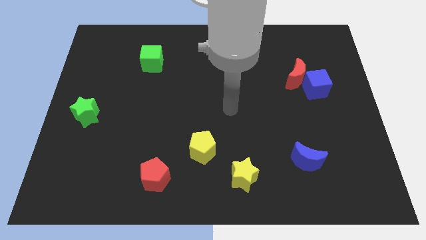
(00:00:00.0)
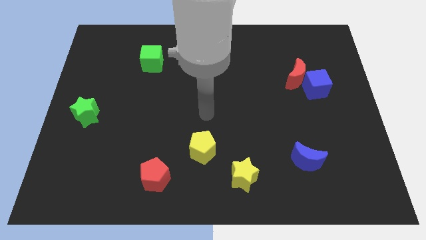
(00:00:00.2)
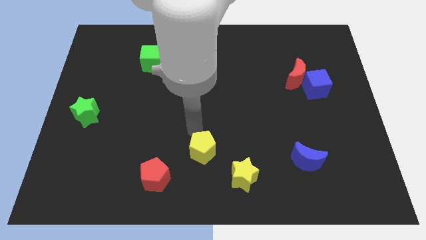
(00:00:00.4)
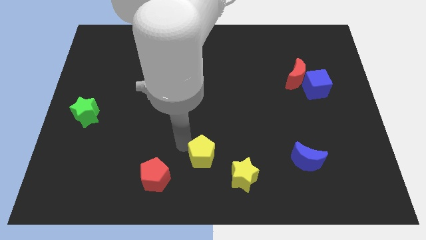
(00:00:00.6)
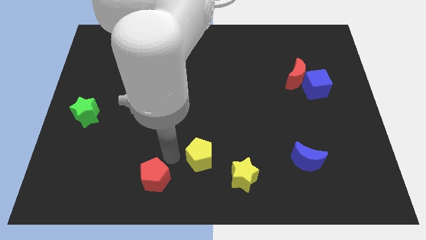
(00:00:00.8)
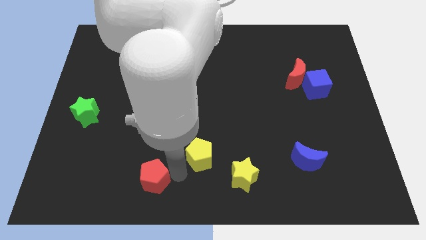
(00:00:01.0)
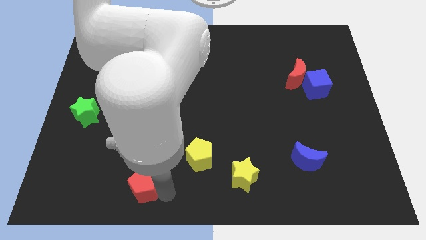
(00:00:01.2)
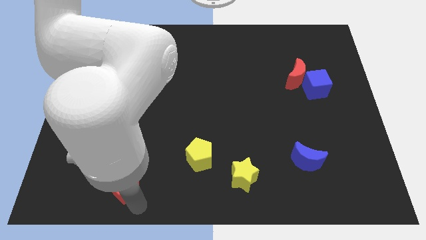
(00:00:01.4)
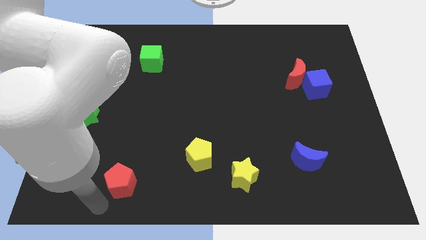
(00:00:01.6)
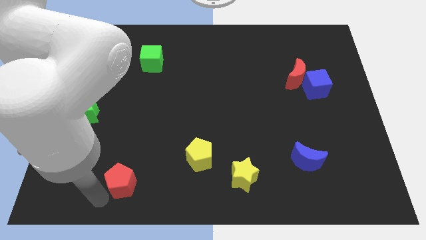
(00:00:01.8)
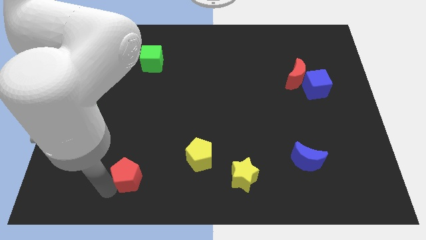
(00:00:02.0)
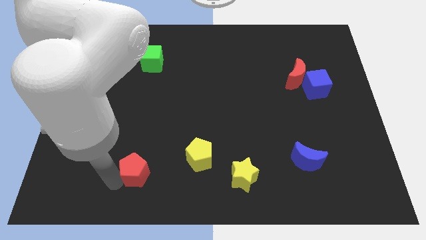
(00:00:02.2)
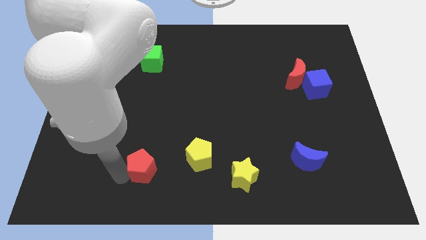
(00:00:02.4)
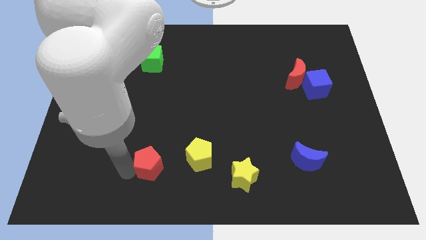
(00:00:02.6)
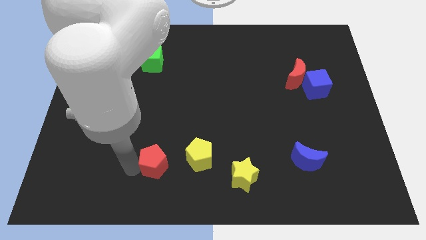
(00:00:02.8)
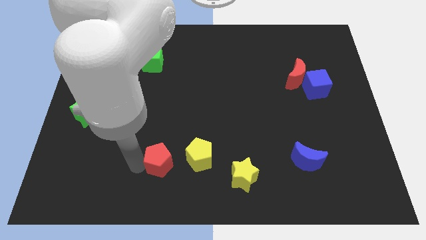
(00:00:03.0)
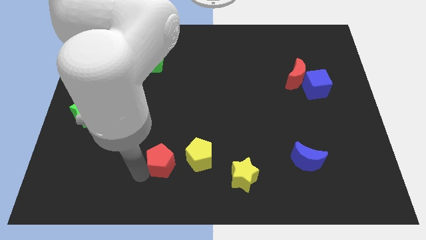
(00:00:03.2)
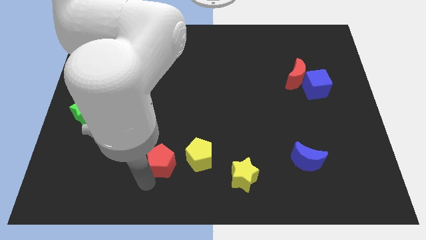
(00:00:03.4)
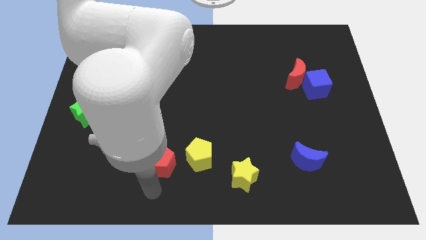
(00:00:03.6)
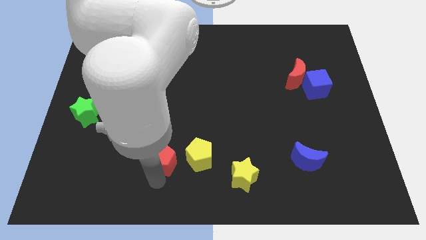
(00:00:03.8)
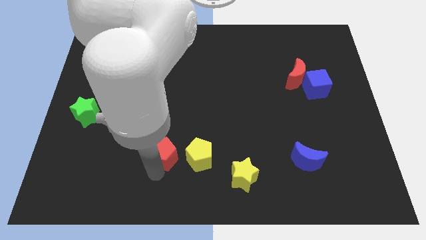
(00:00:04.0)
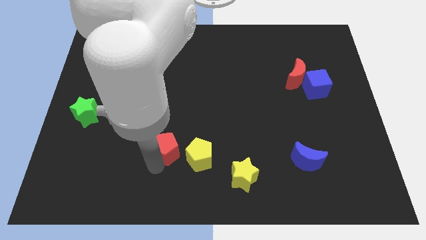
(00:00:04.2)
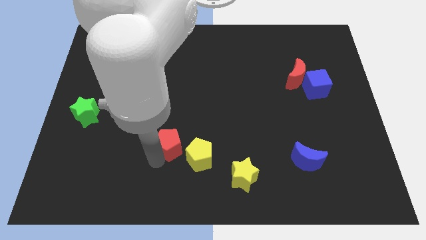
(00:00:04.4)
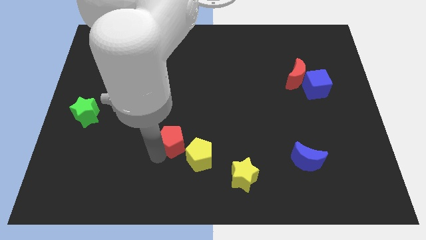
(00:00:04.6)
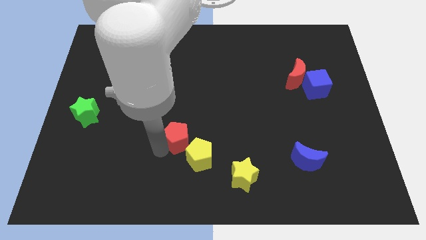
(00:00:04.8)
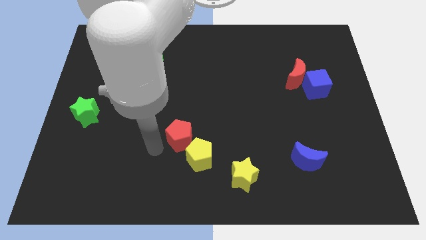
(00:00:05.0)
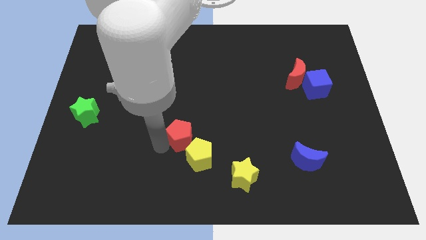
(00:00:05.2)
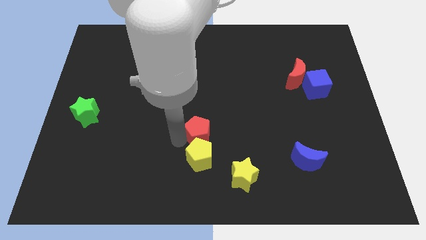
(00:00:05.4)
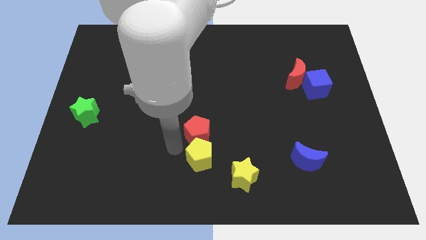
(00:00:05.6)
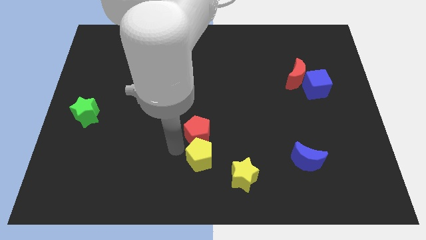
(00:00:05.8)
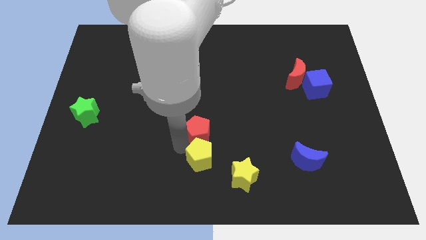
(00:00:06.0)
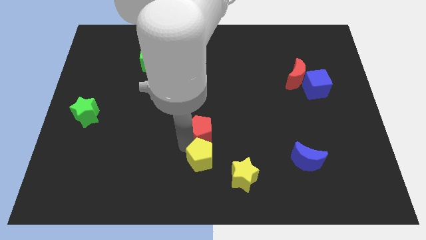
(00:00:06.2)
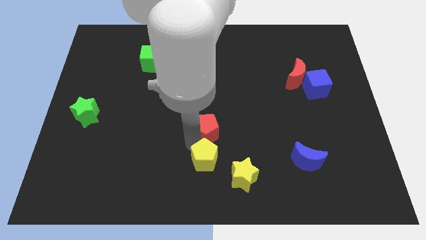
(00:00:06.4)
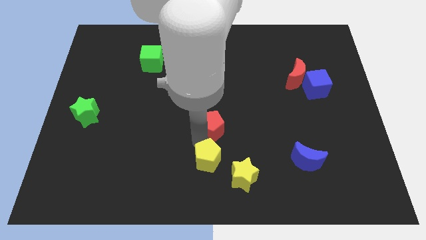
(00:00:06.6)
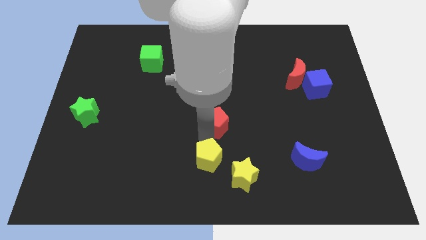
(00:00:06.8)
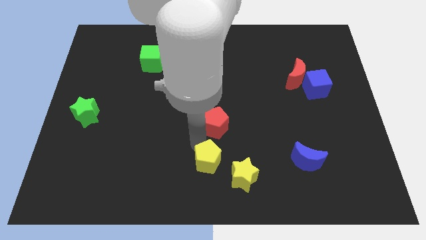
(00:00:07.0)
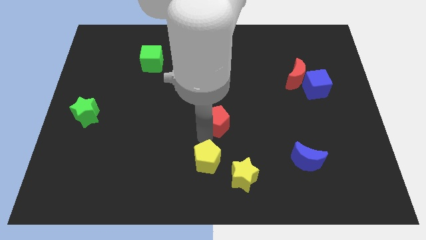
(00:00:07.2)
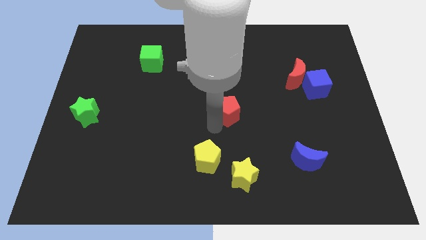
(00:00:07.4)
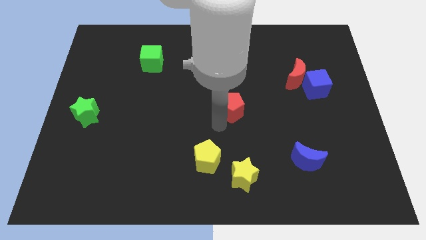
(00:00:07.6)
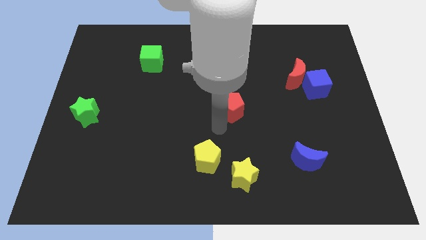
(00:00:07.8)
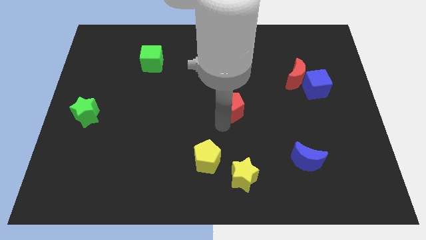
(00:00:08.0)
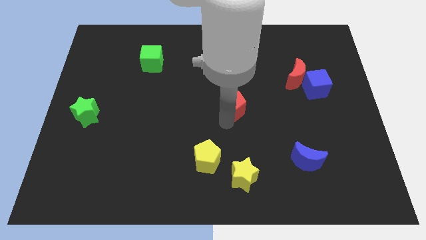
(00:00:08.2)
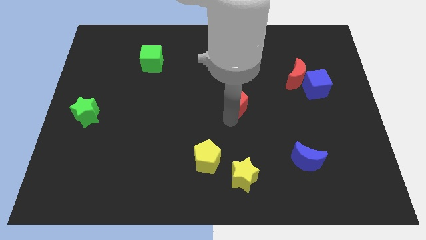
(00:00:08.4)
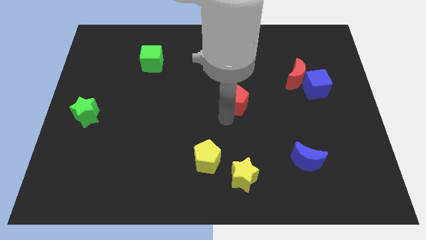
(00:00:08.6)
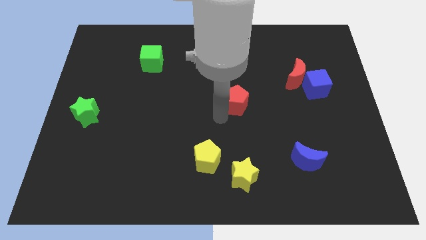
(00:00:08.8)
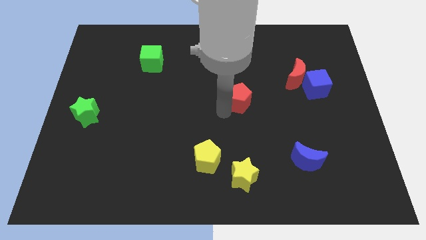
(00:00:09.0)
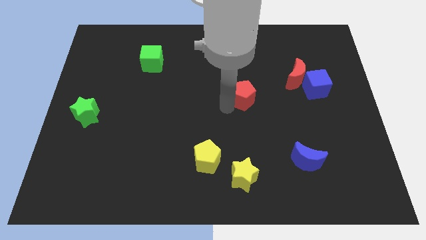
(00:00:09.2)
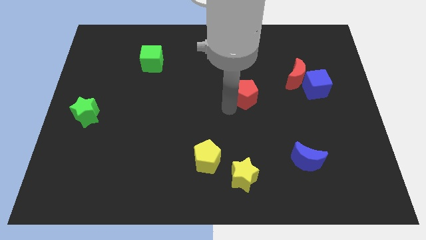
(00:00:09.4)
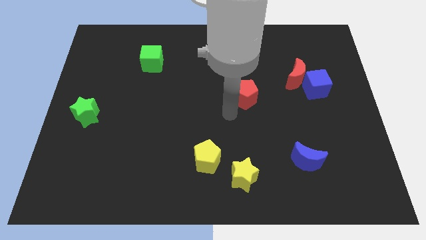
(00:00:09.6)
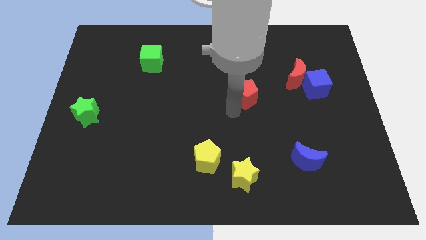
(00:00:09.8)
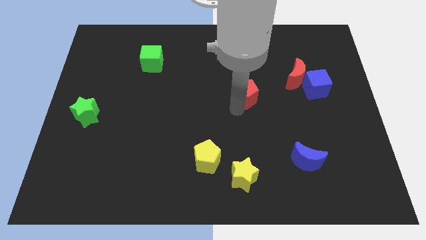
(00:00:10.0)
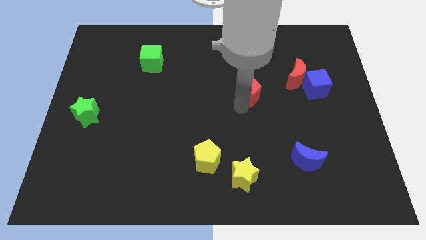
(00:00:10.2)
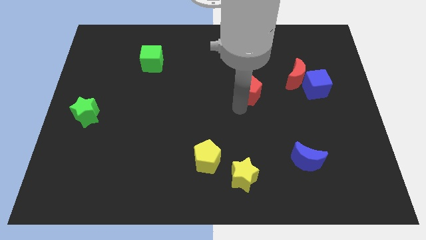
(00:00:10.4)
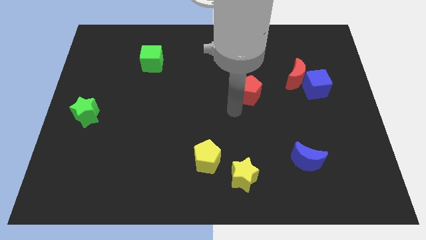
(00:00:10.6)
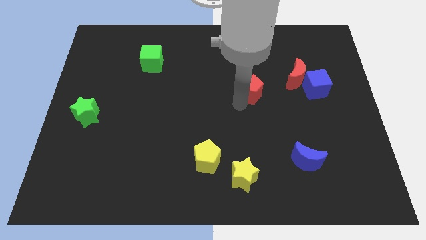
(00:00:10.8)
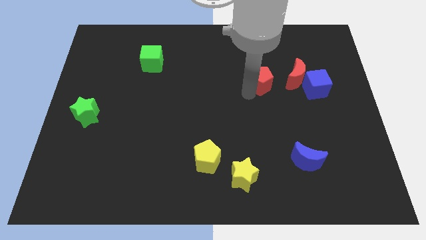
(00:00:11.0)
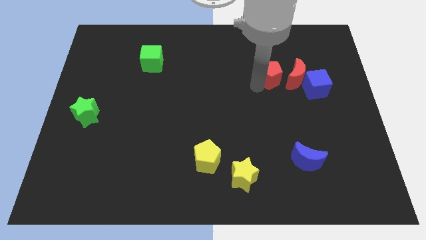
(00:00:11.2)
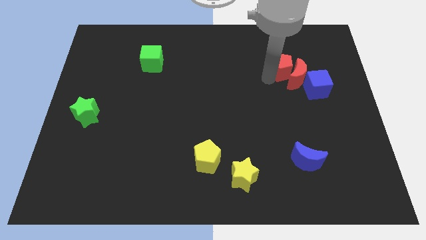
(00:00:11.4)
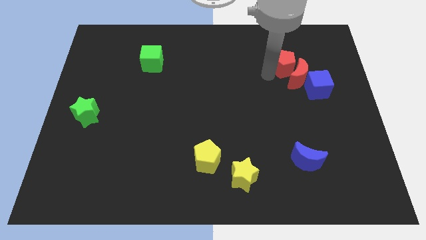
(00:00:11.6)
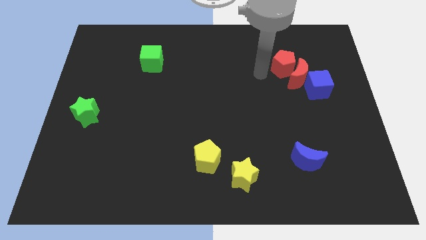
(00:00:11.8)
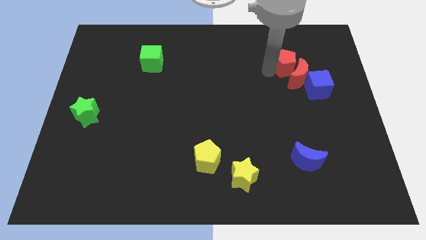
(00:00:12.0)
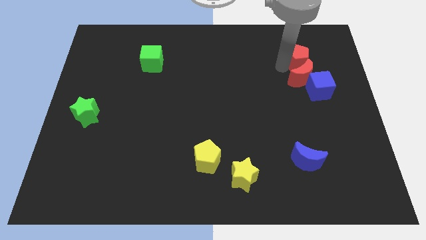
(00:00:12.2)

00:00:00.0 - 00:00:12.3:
push the red pentagon to the top side of the blue cube

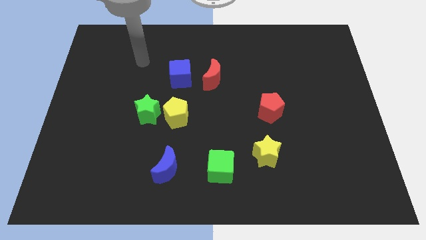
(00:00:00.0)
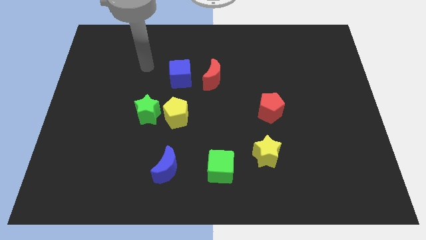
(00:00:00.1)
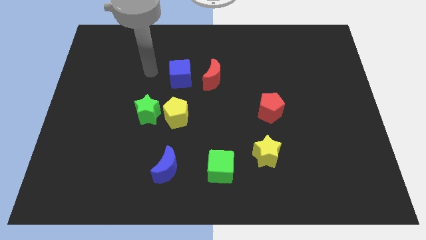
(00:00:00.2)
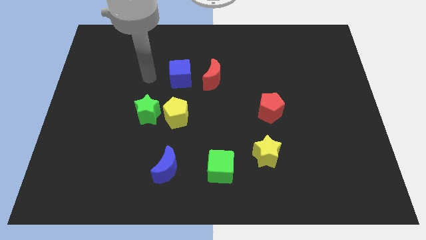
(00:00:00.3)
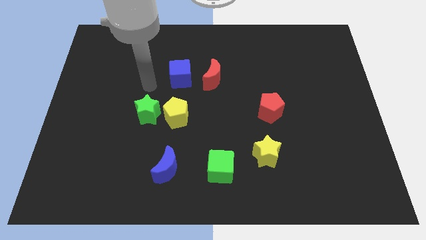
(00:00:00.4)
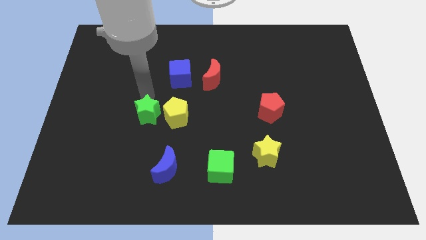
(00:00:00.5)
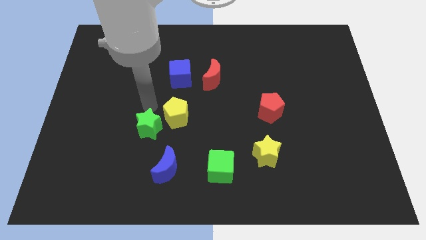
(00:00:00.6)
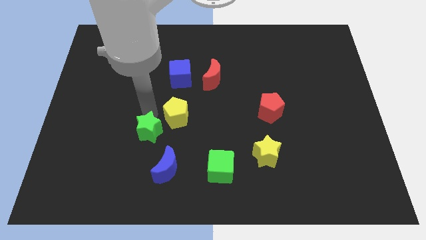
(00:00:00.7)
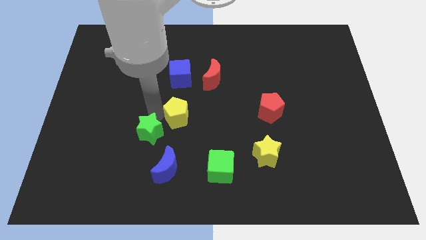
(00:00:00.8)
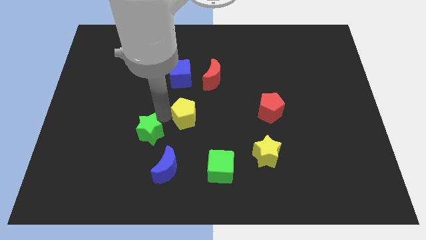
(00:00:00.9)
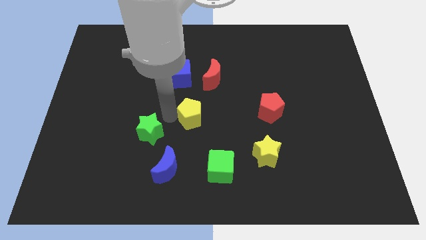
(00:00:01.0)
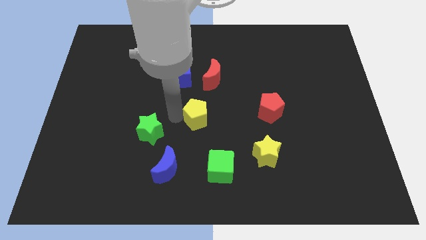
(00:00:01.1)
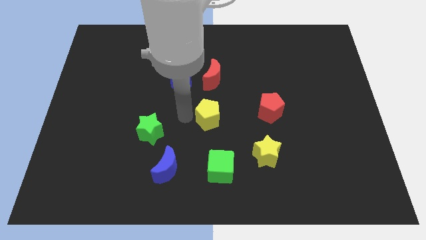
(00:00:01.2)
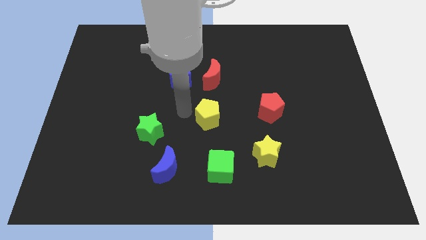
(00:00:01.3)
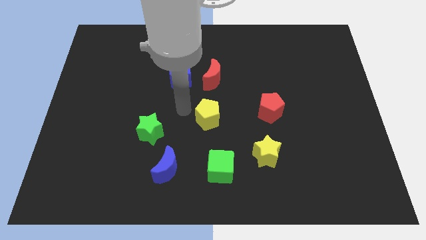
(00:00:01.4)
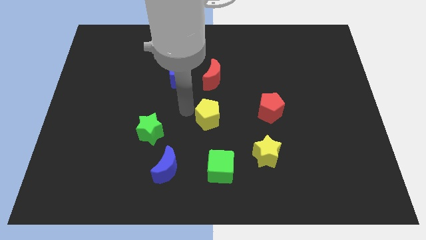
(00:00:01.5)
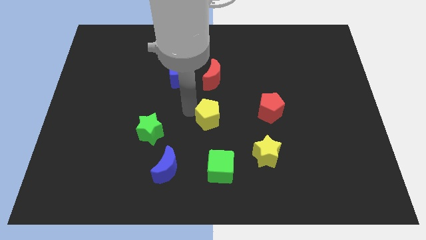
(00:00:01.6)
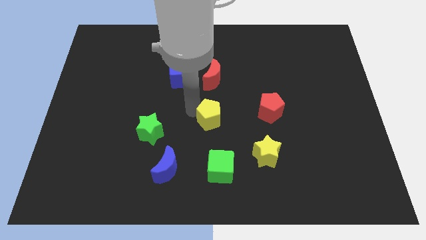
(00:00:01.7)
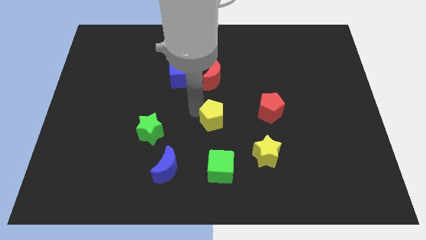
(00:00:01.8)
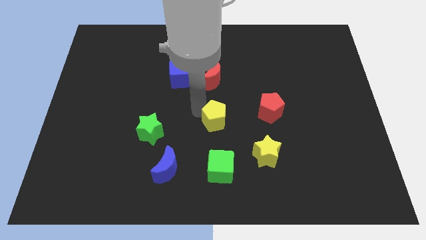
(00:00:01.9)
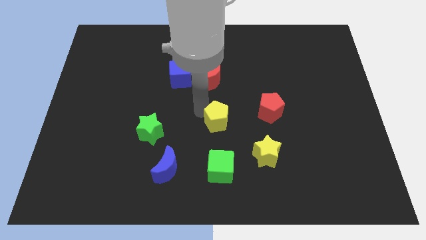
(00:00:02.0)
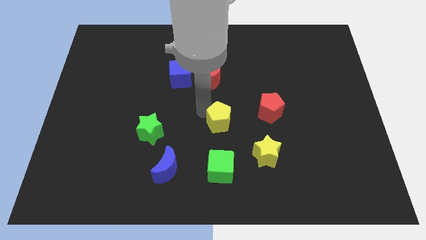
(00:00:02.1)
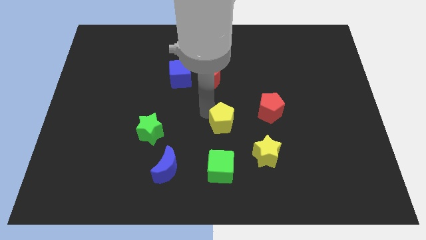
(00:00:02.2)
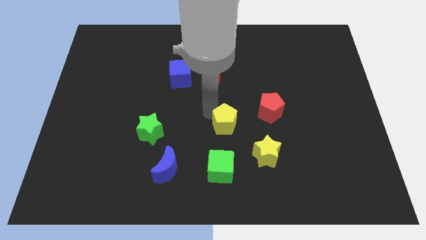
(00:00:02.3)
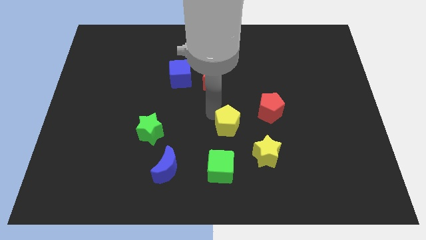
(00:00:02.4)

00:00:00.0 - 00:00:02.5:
push the yellow pentagon to the bottom left of the red pentagon
